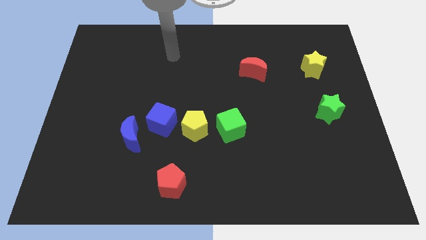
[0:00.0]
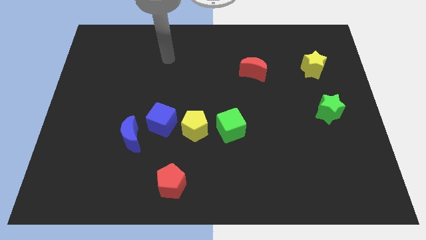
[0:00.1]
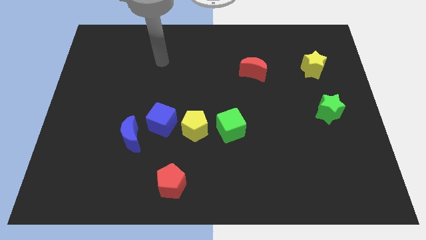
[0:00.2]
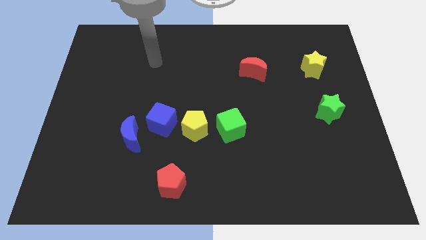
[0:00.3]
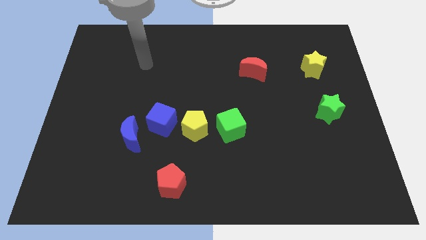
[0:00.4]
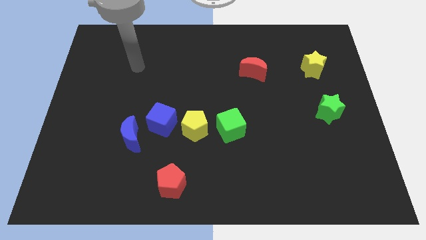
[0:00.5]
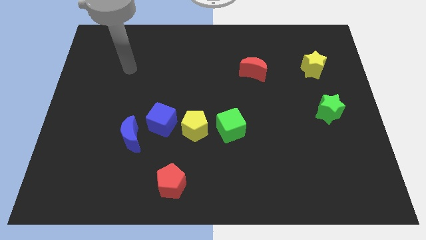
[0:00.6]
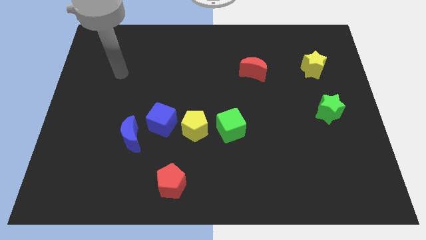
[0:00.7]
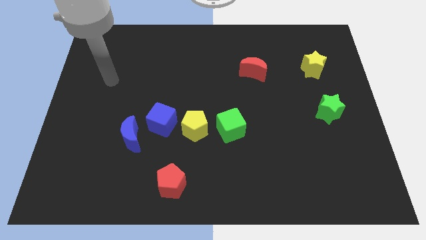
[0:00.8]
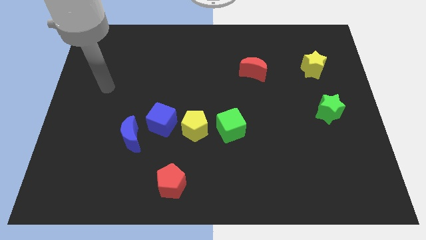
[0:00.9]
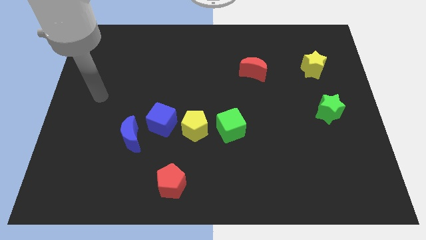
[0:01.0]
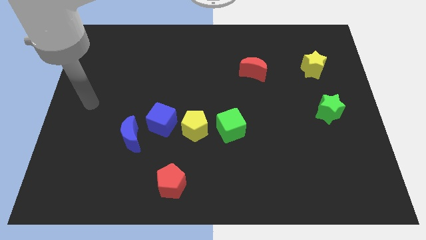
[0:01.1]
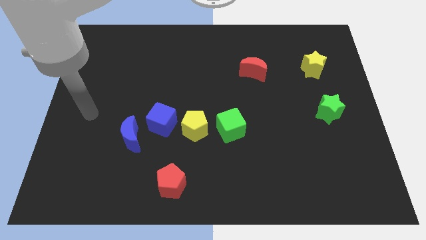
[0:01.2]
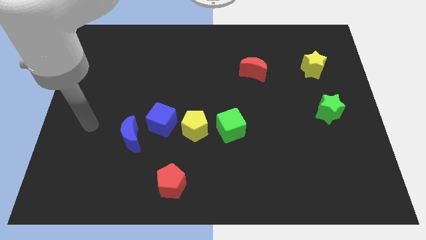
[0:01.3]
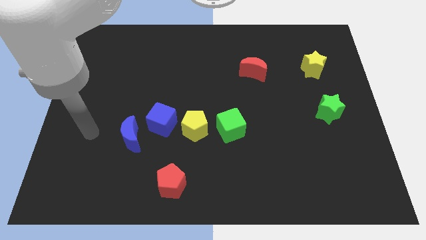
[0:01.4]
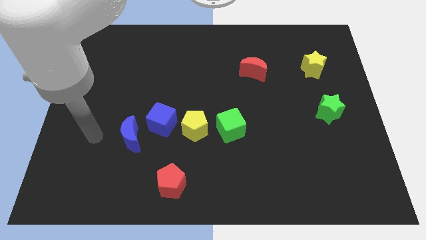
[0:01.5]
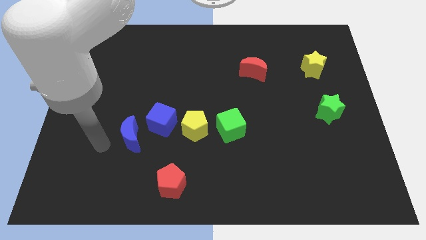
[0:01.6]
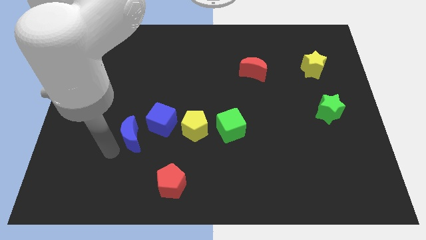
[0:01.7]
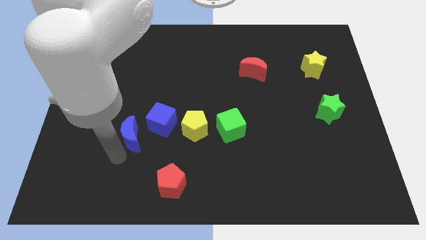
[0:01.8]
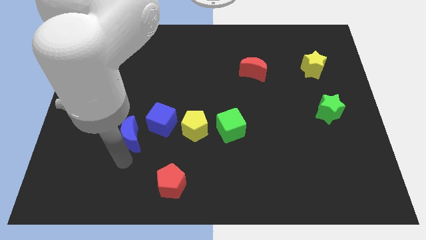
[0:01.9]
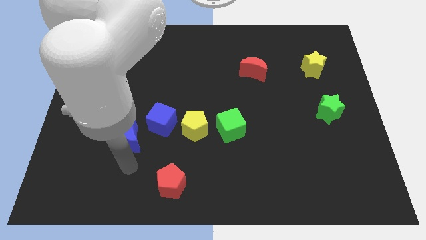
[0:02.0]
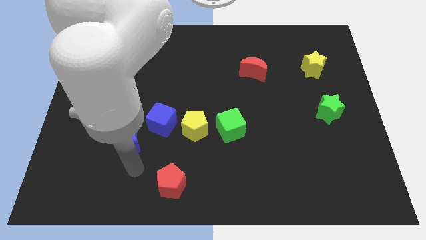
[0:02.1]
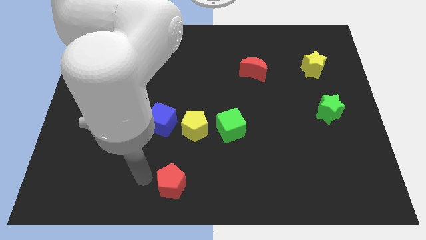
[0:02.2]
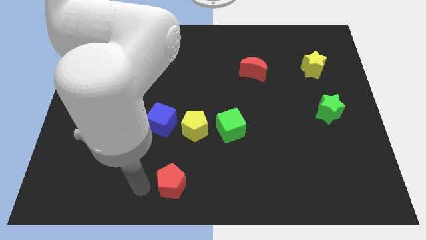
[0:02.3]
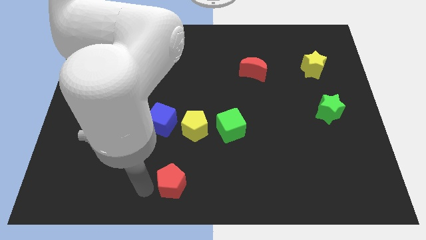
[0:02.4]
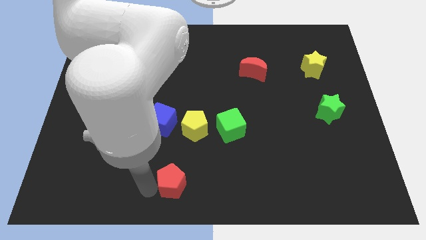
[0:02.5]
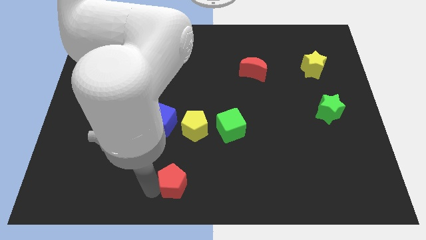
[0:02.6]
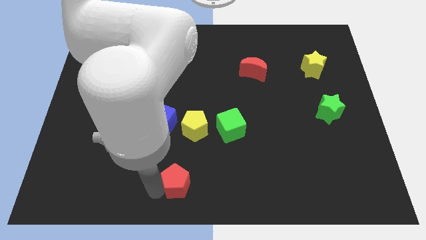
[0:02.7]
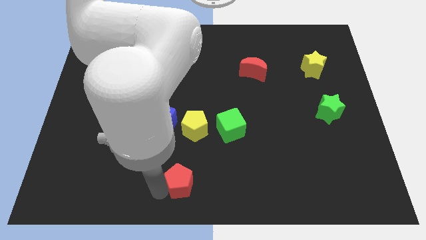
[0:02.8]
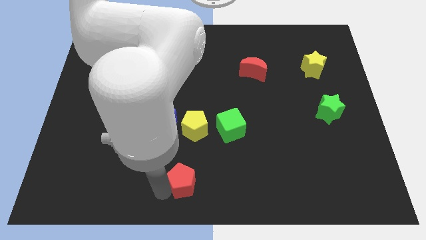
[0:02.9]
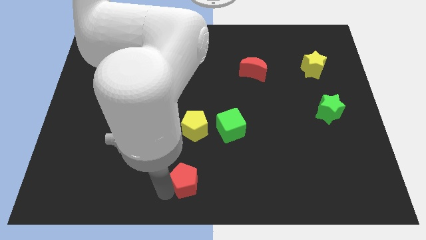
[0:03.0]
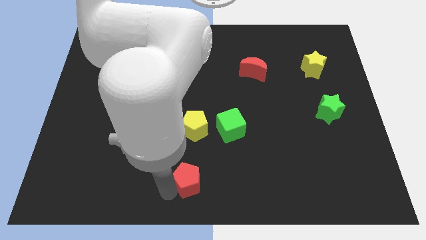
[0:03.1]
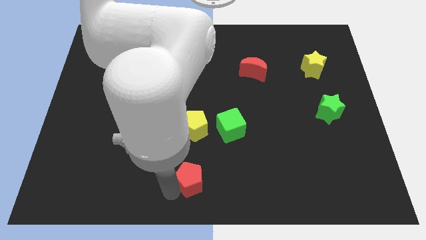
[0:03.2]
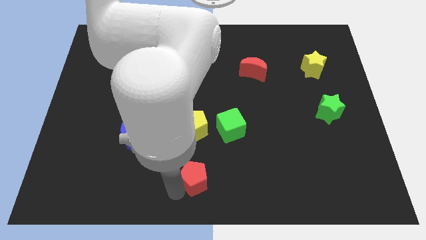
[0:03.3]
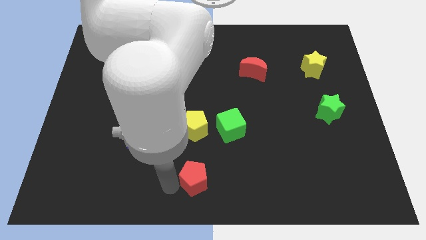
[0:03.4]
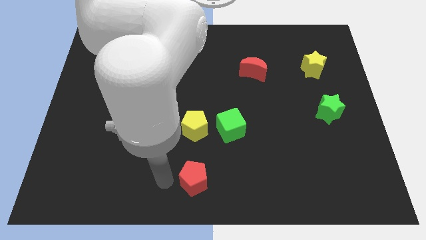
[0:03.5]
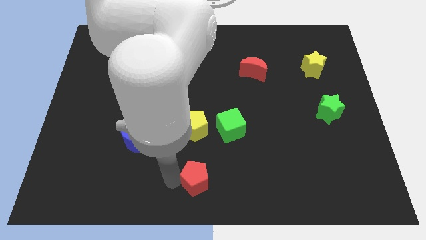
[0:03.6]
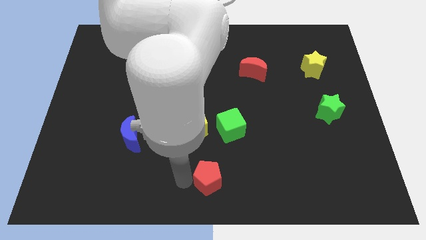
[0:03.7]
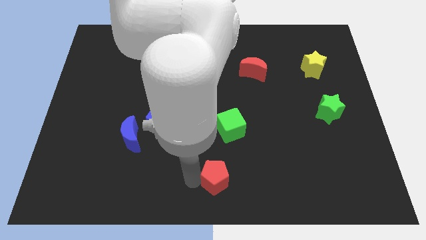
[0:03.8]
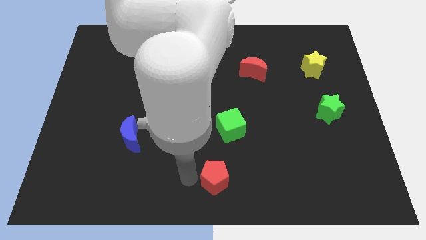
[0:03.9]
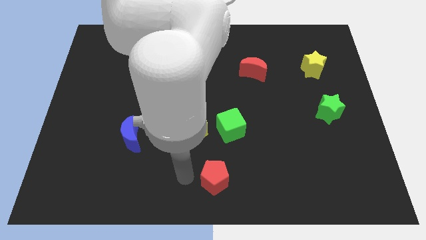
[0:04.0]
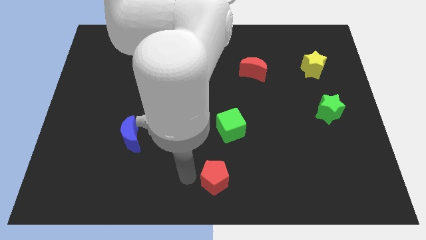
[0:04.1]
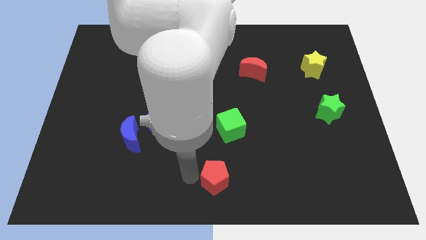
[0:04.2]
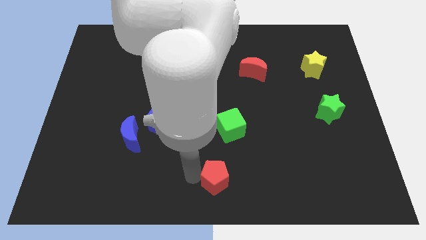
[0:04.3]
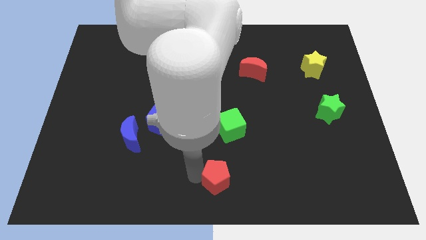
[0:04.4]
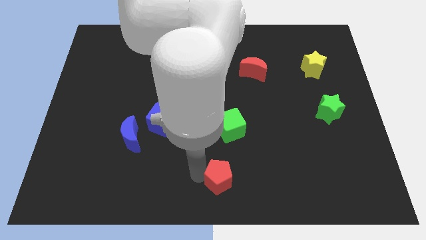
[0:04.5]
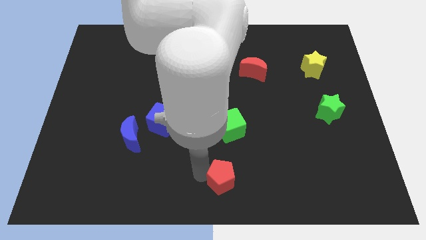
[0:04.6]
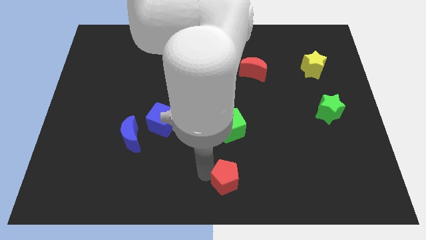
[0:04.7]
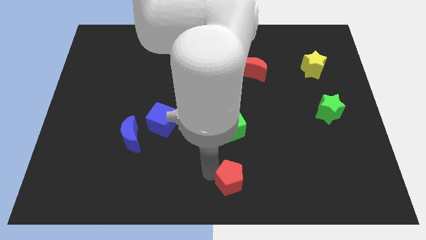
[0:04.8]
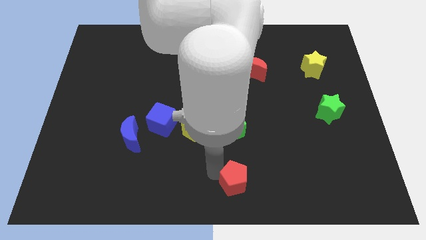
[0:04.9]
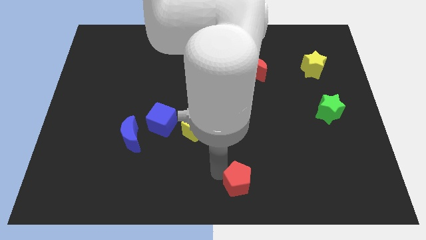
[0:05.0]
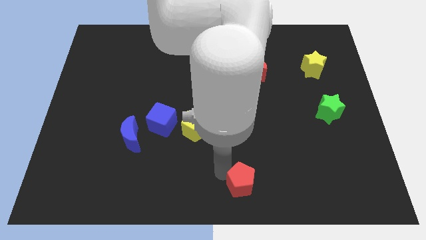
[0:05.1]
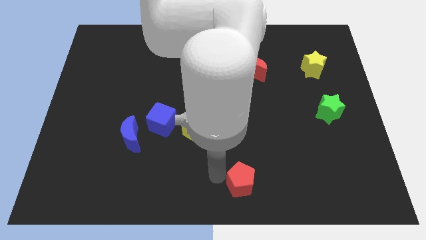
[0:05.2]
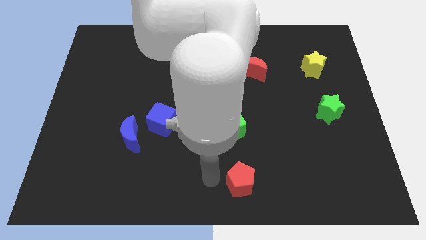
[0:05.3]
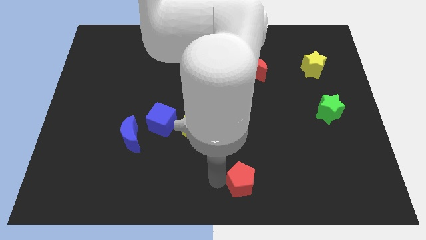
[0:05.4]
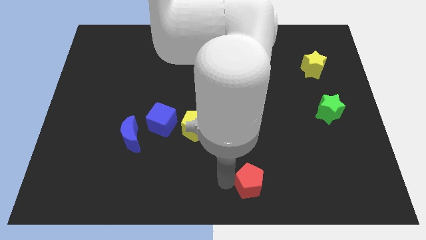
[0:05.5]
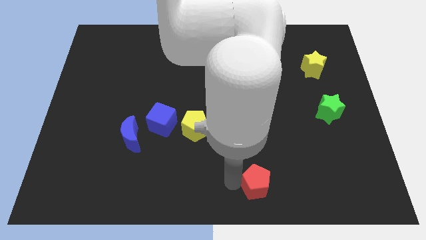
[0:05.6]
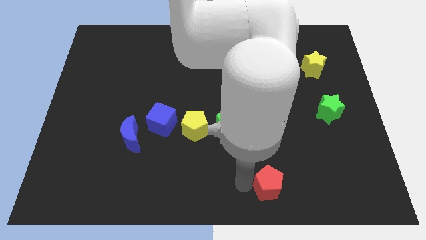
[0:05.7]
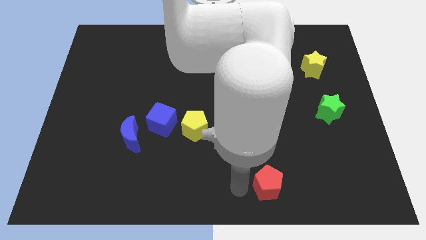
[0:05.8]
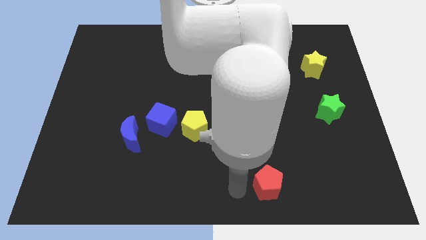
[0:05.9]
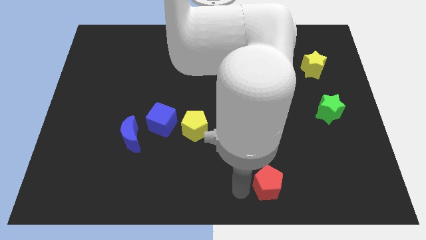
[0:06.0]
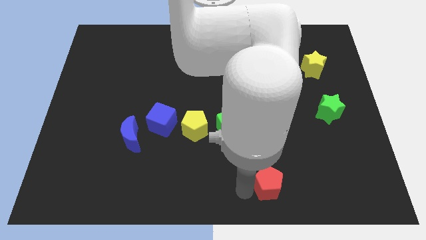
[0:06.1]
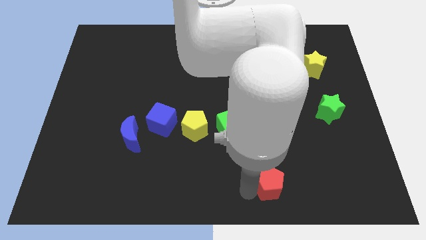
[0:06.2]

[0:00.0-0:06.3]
push the red pentagon to the right

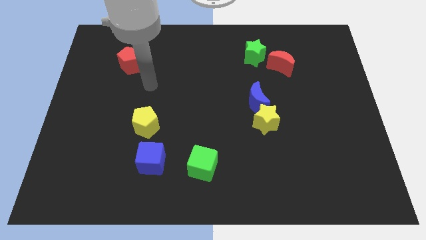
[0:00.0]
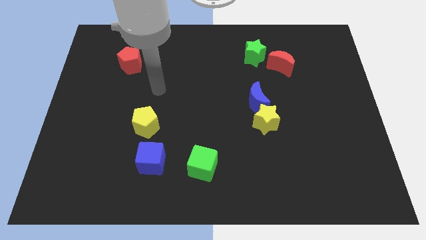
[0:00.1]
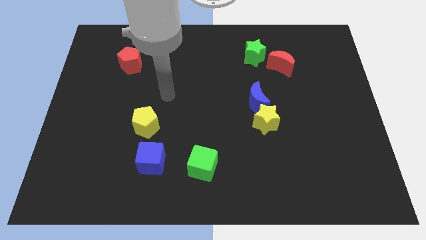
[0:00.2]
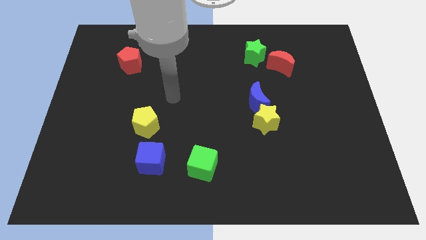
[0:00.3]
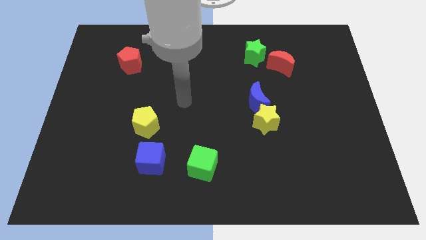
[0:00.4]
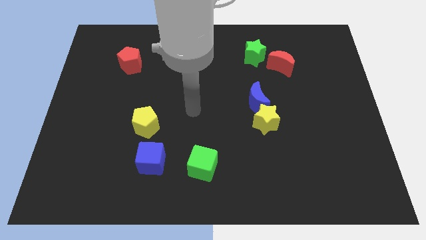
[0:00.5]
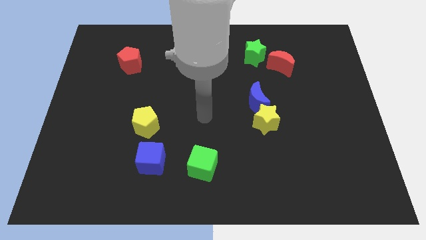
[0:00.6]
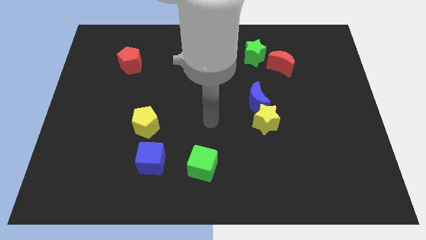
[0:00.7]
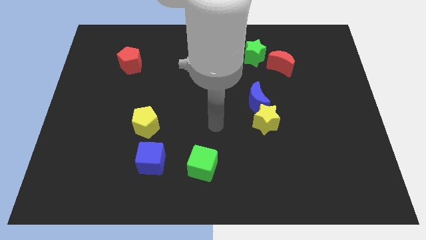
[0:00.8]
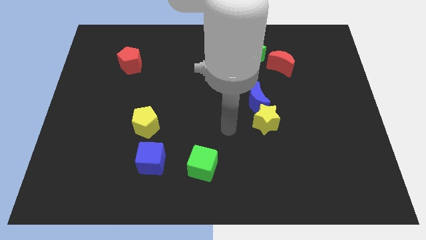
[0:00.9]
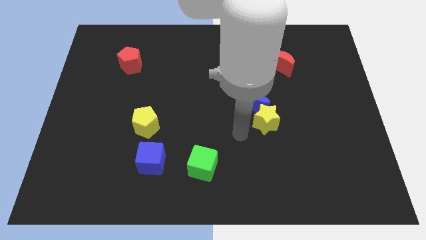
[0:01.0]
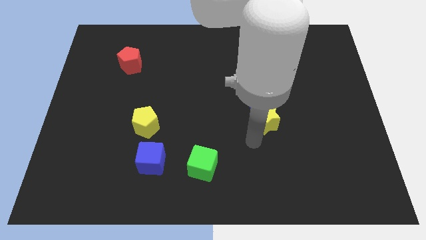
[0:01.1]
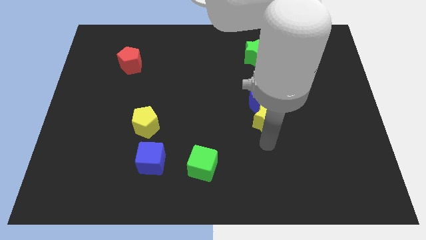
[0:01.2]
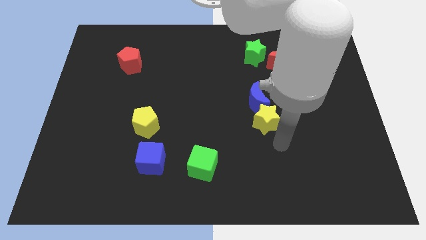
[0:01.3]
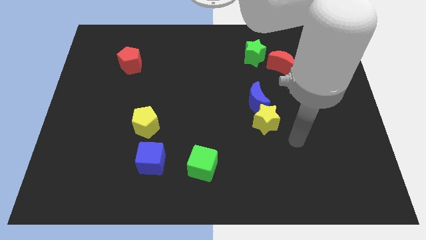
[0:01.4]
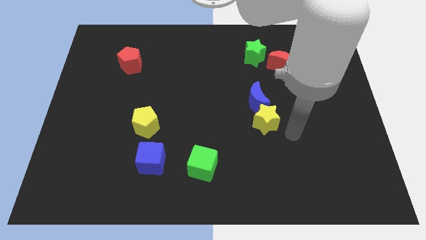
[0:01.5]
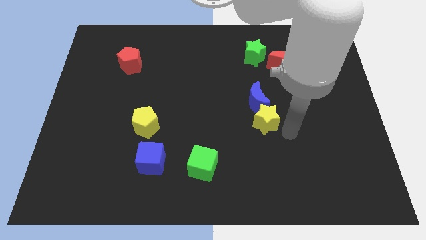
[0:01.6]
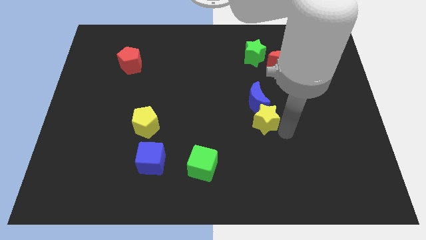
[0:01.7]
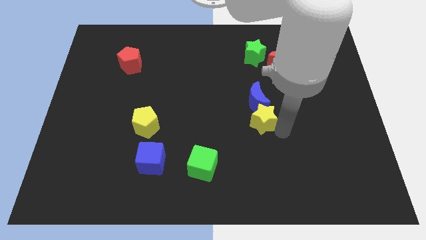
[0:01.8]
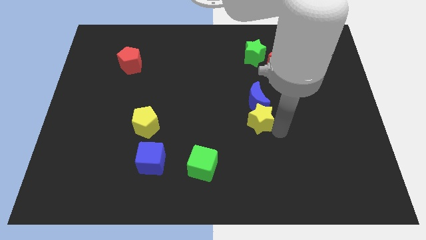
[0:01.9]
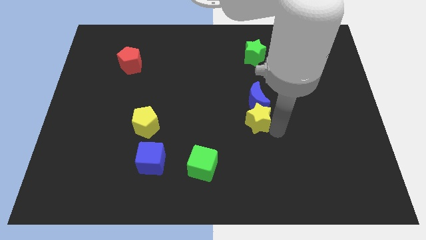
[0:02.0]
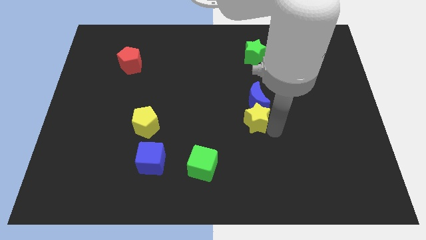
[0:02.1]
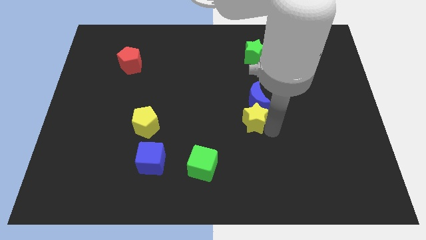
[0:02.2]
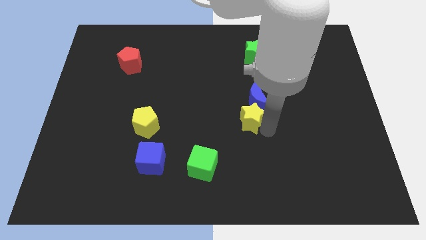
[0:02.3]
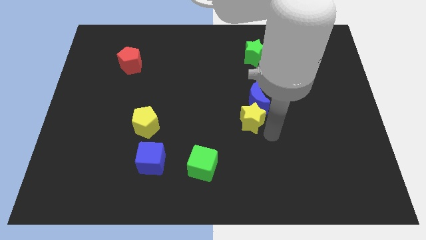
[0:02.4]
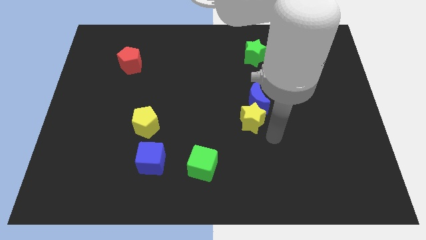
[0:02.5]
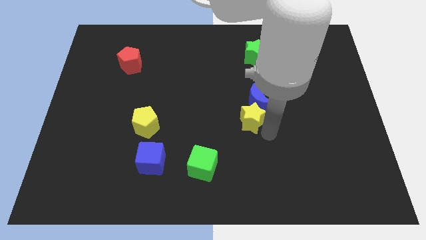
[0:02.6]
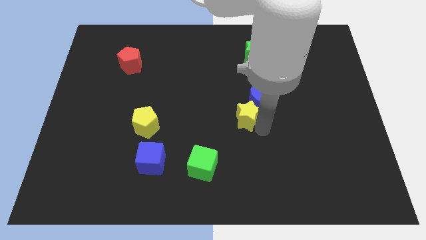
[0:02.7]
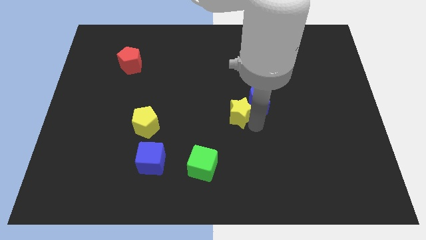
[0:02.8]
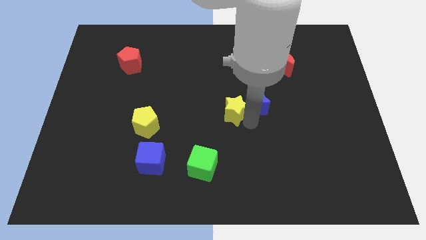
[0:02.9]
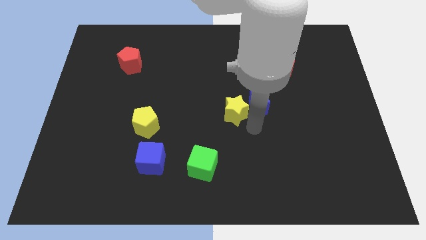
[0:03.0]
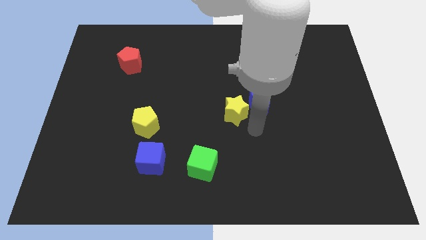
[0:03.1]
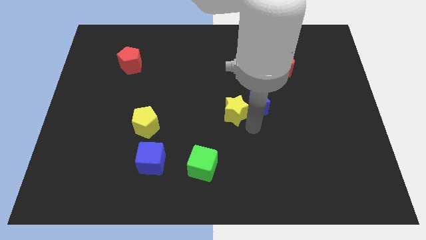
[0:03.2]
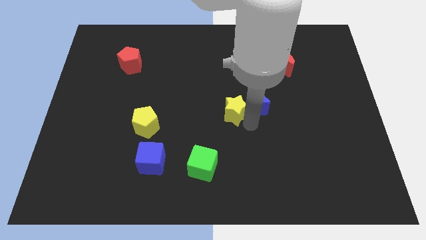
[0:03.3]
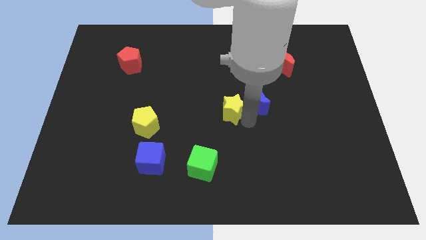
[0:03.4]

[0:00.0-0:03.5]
slide the yellow star slightly upwards and left diagonally
